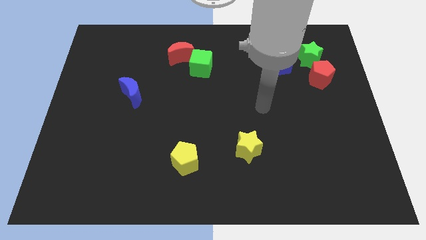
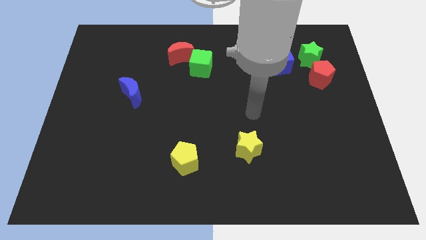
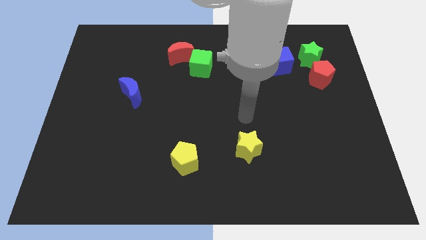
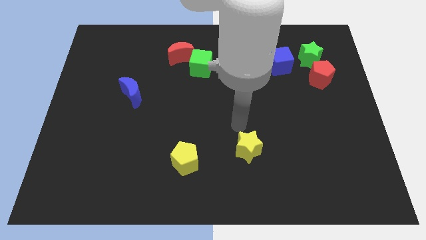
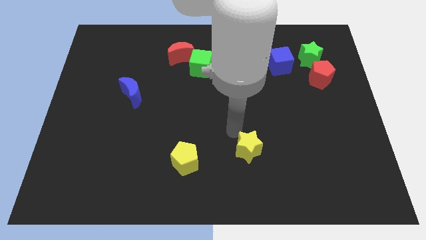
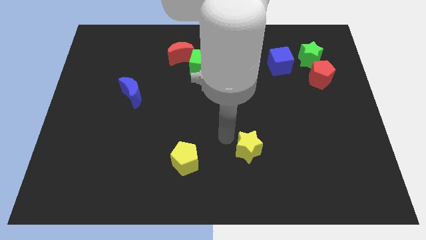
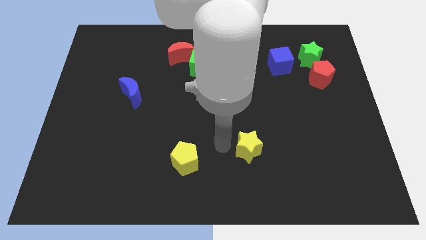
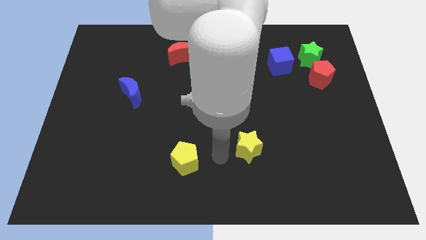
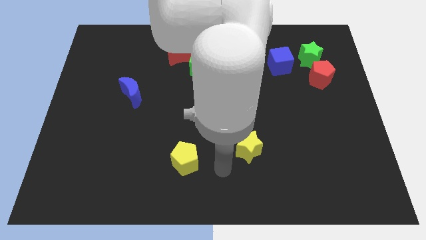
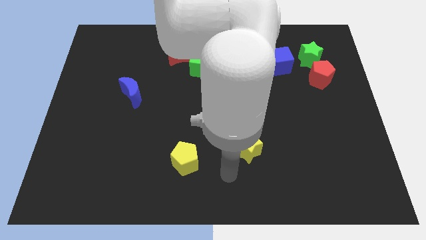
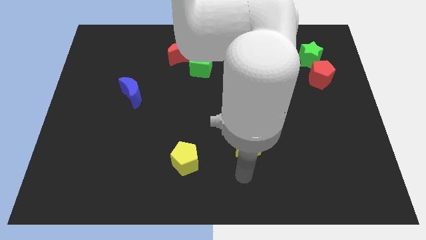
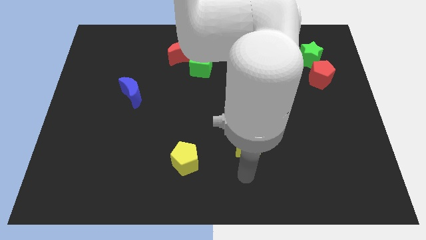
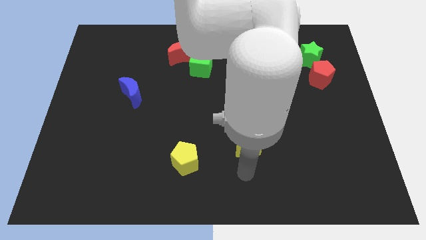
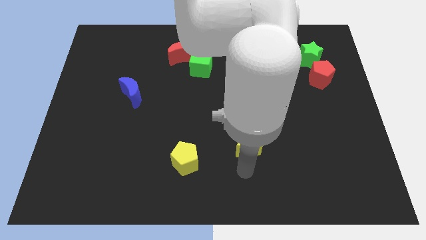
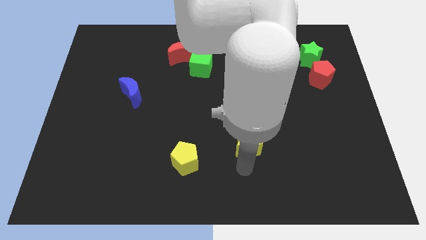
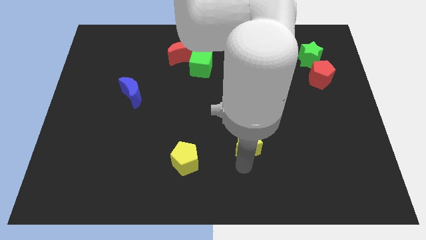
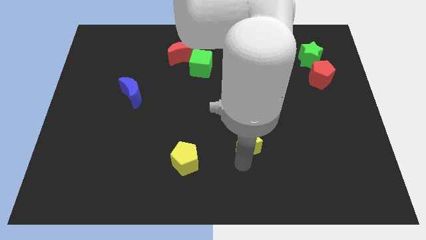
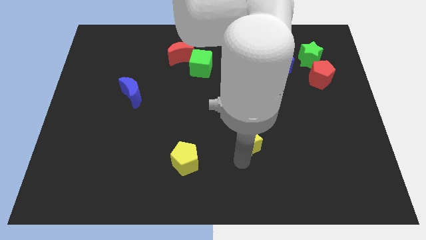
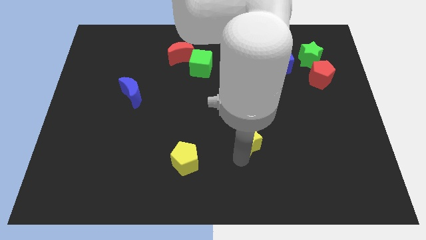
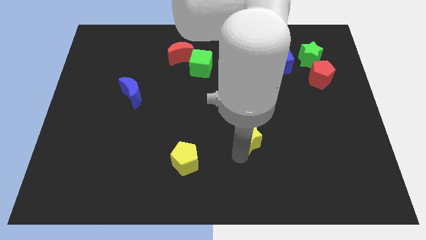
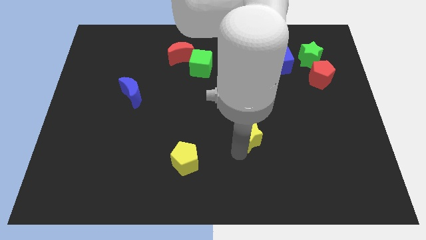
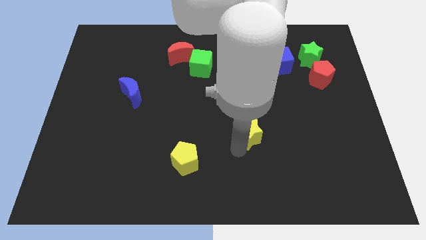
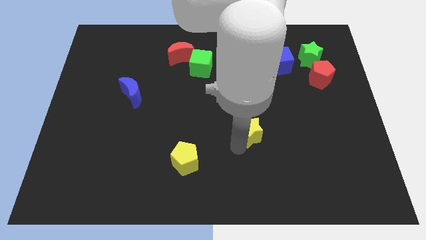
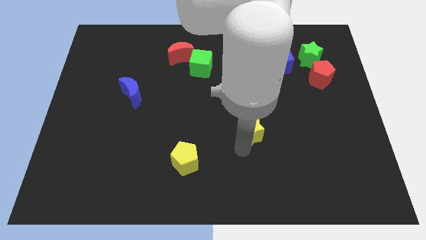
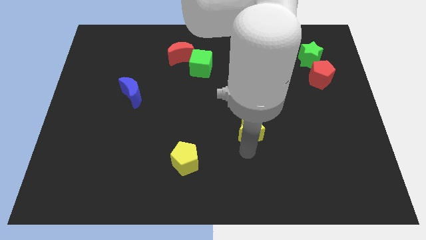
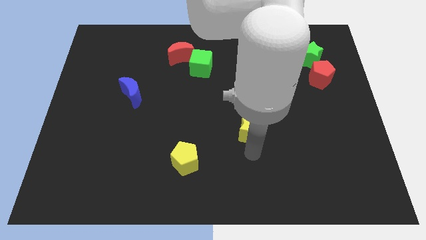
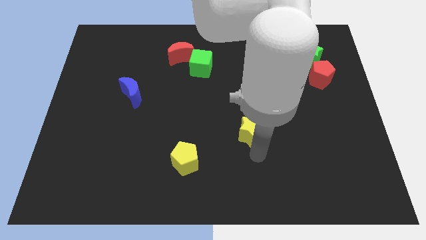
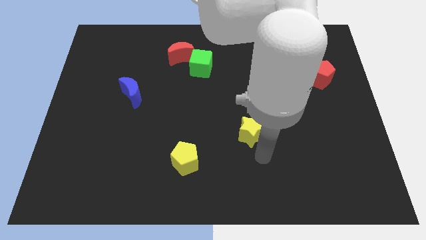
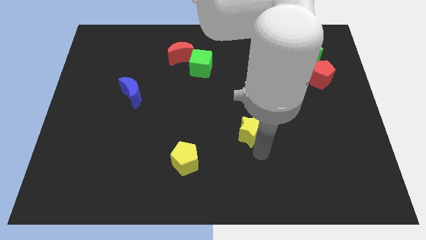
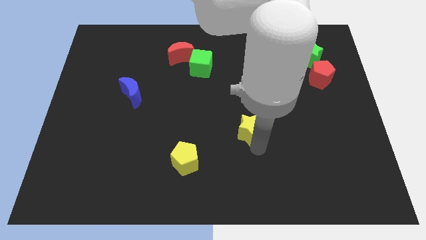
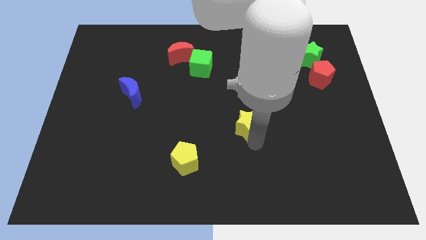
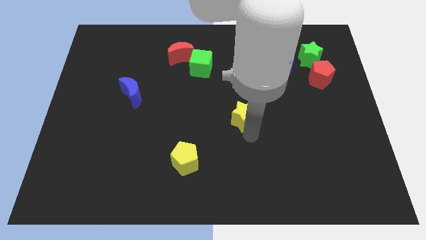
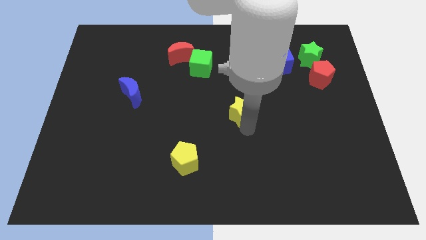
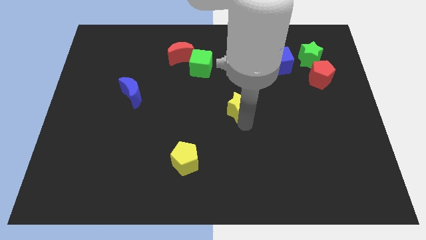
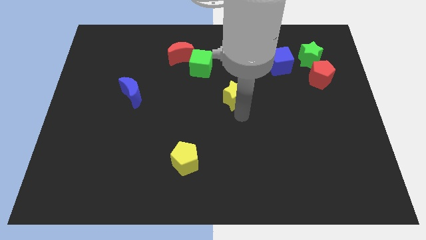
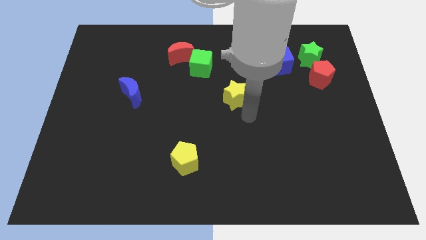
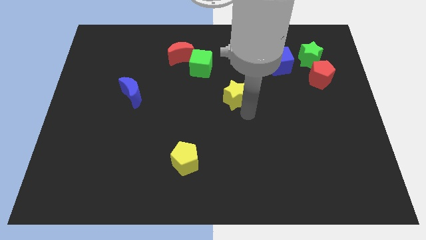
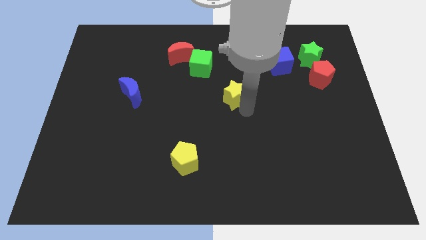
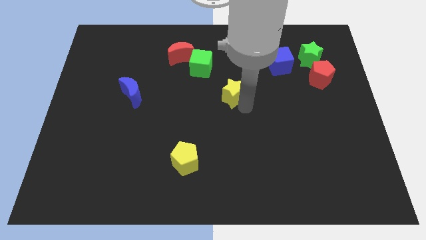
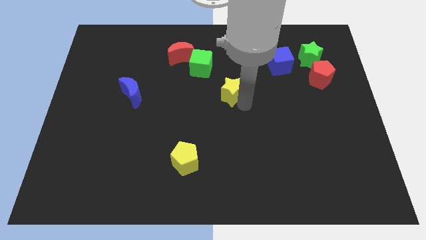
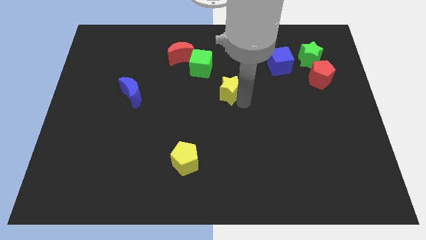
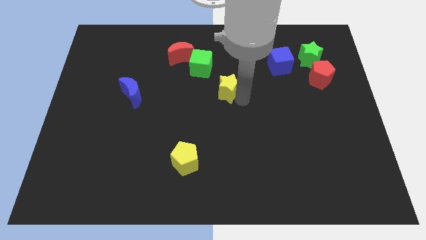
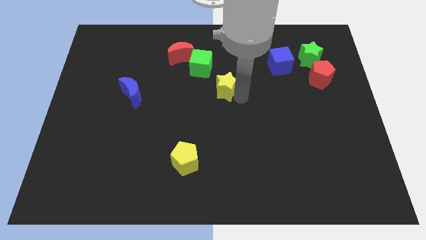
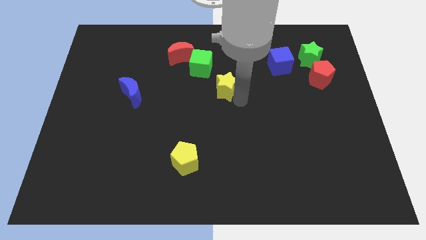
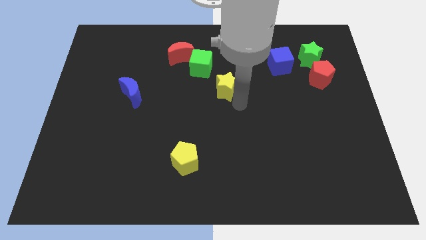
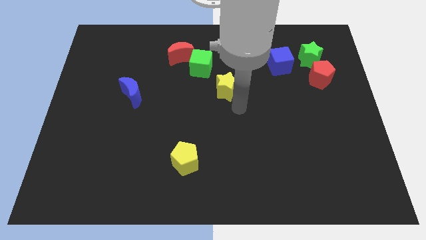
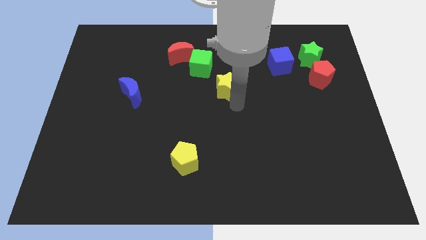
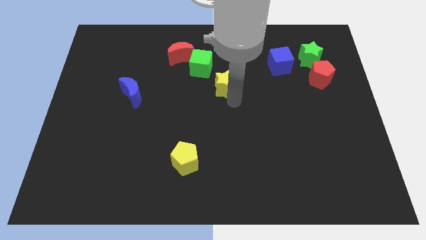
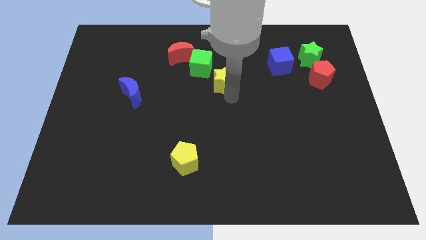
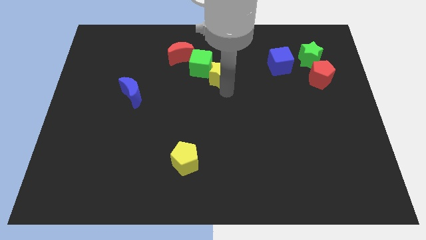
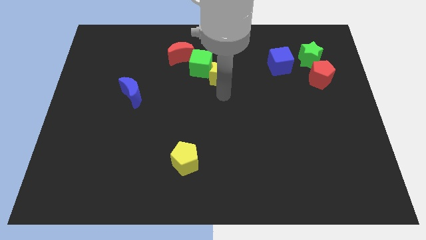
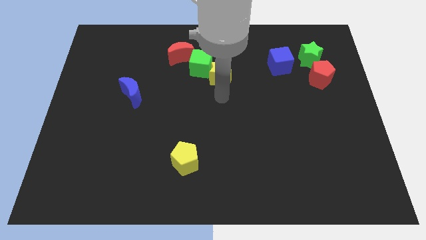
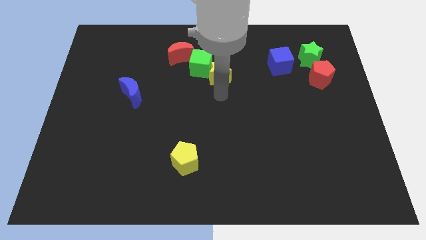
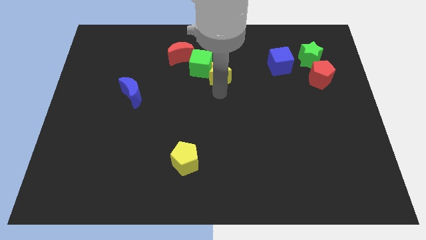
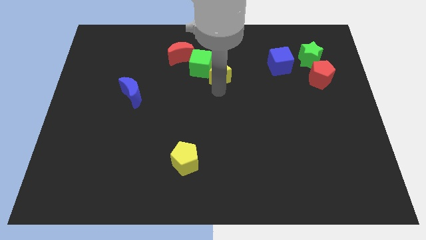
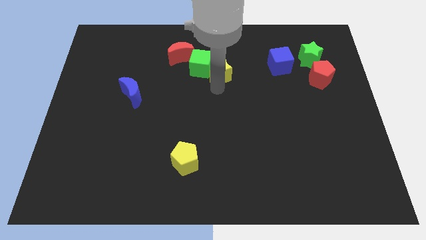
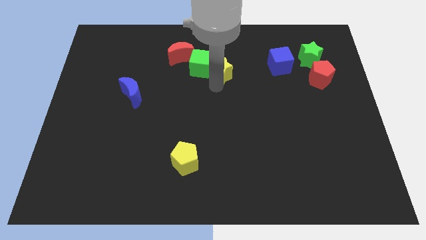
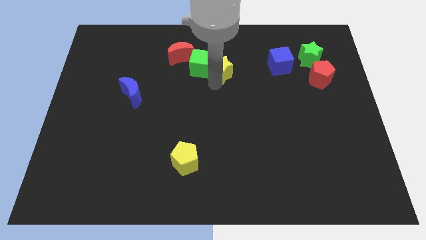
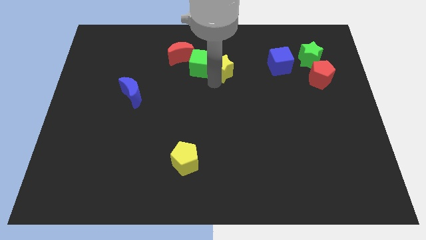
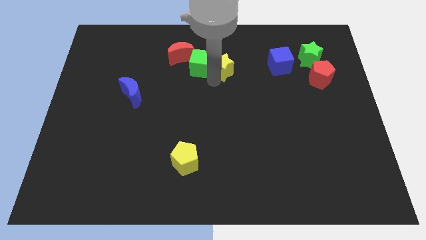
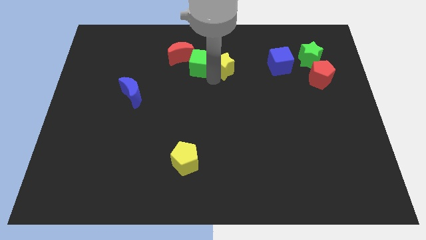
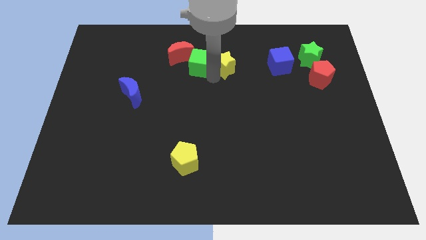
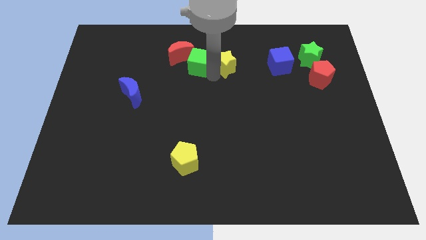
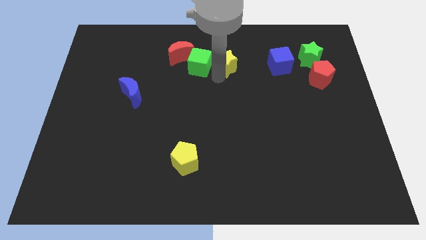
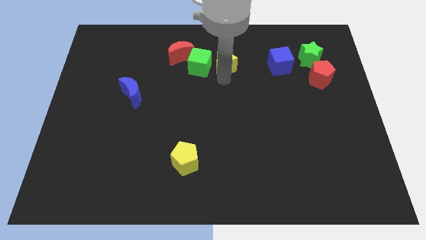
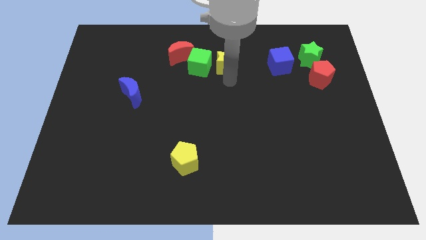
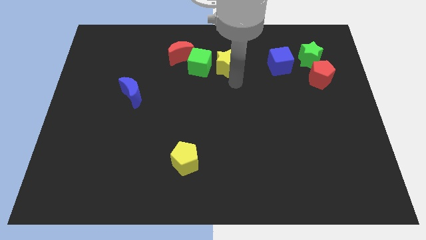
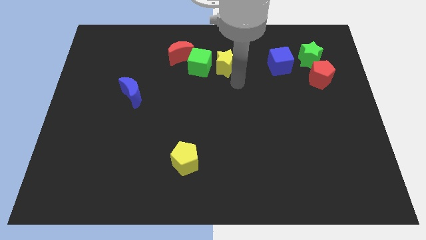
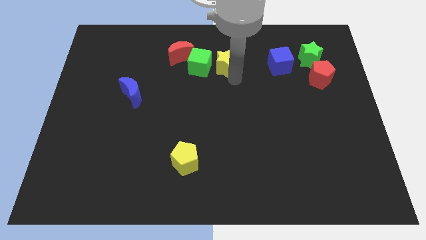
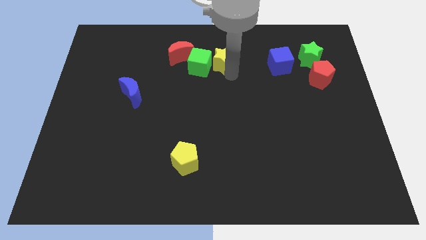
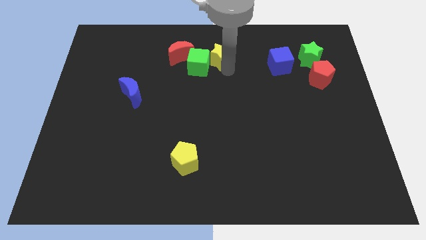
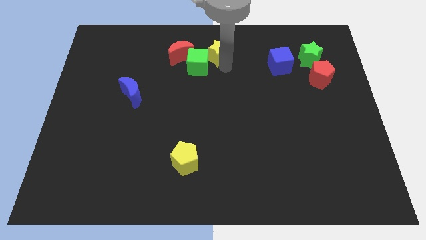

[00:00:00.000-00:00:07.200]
put the yellow star to the top
